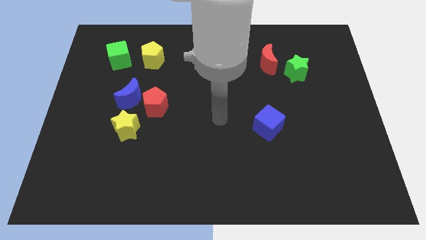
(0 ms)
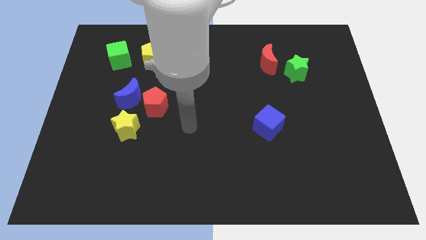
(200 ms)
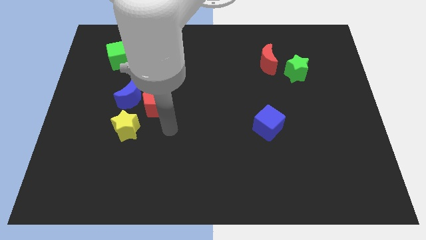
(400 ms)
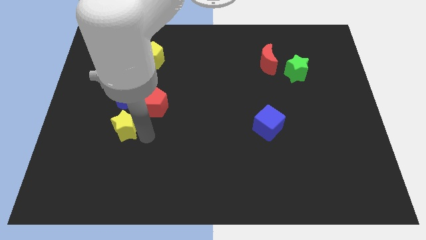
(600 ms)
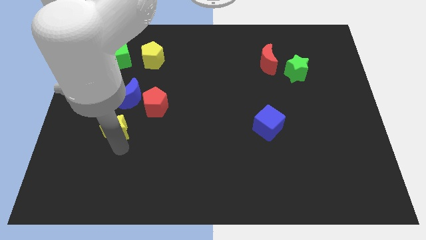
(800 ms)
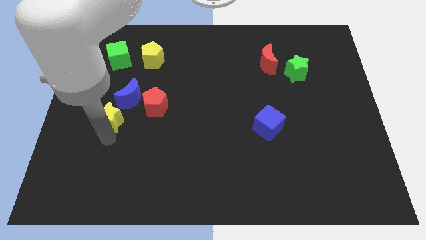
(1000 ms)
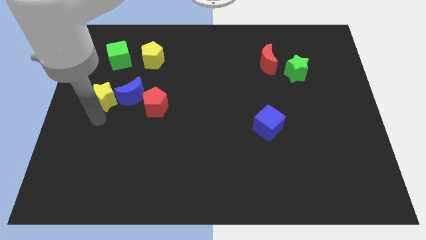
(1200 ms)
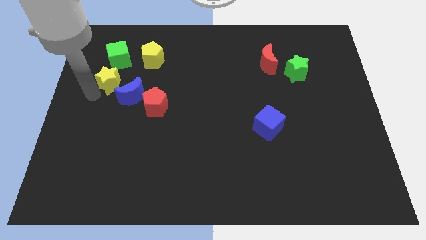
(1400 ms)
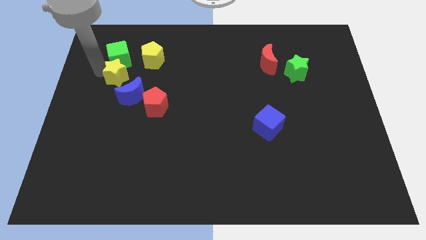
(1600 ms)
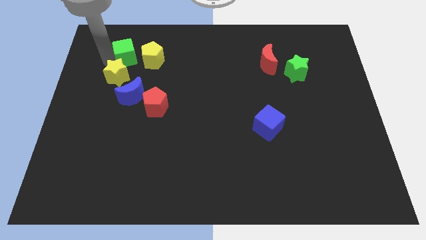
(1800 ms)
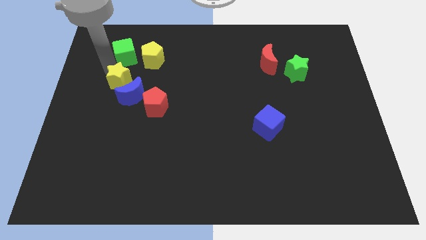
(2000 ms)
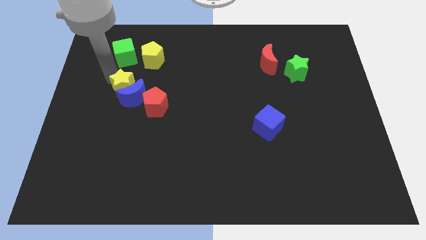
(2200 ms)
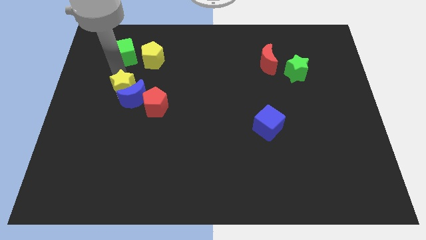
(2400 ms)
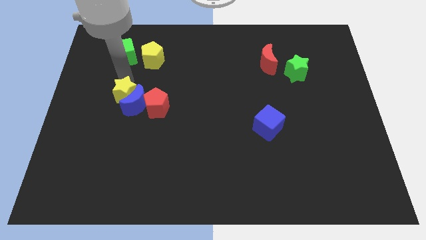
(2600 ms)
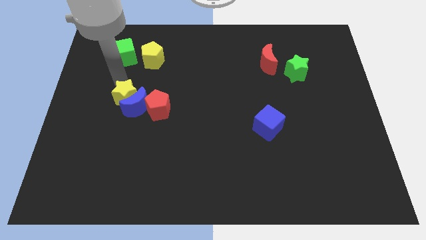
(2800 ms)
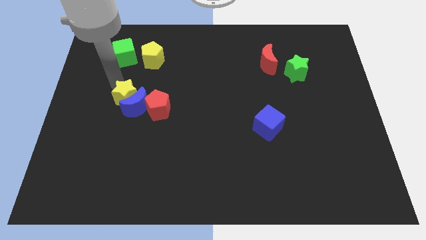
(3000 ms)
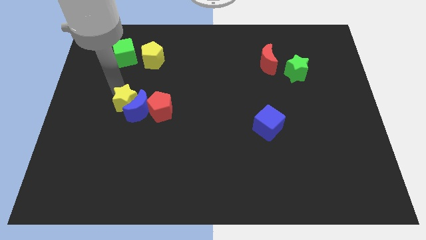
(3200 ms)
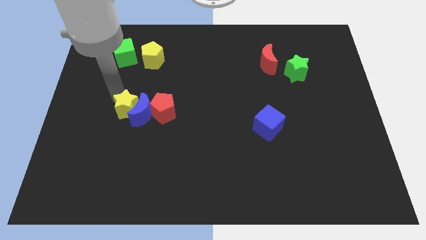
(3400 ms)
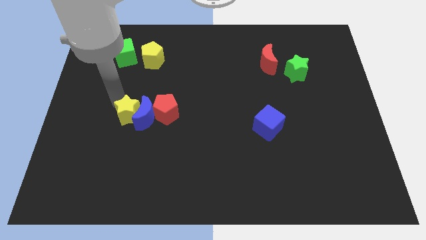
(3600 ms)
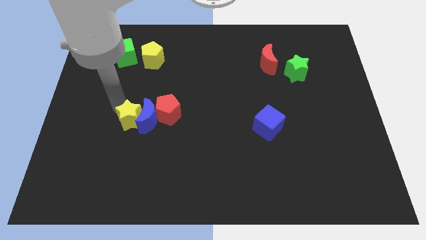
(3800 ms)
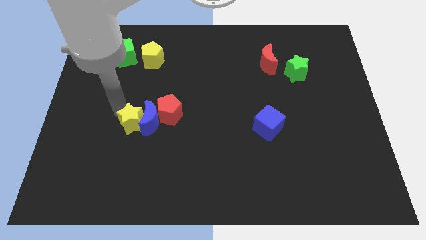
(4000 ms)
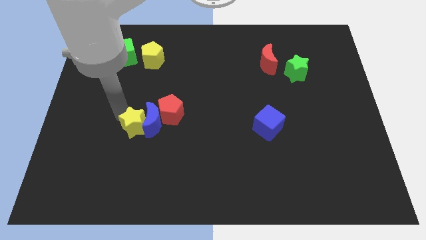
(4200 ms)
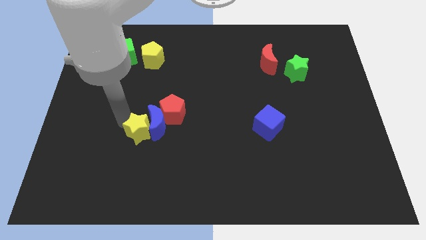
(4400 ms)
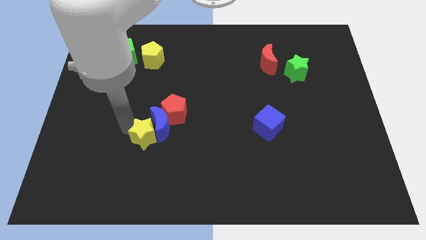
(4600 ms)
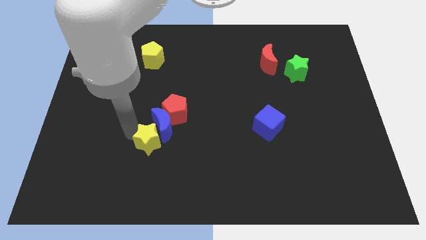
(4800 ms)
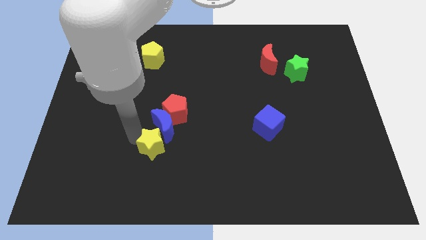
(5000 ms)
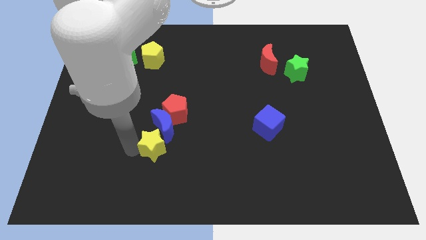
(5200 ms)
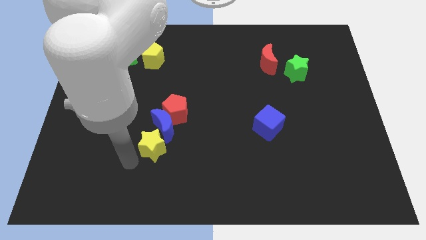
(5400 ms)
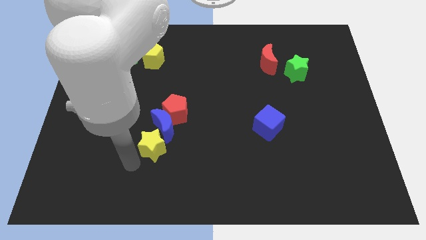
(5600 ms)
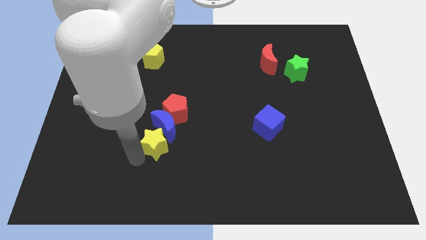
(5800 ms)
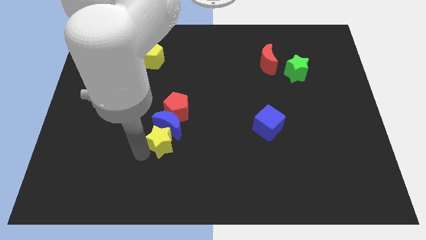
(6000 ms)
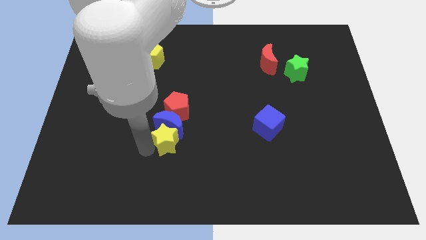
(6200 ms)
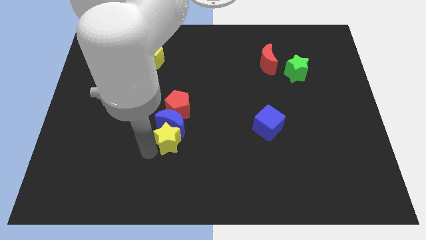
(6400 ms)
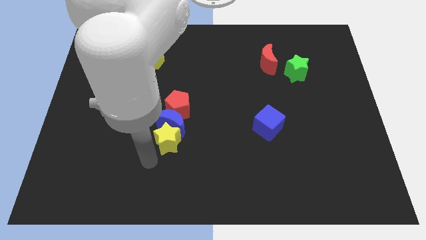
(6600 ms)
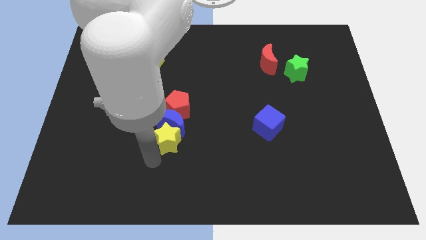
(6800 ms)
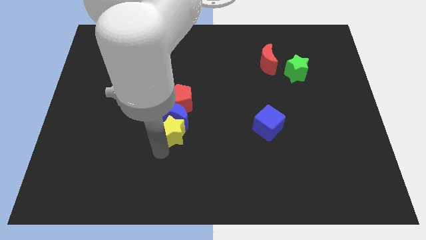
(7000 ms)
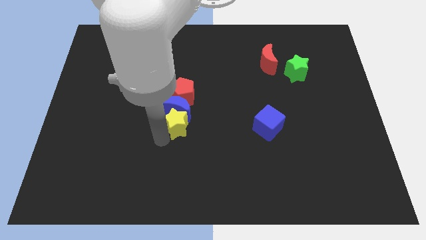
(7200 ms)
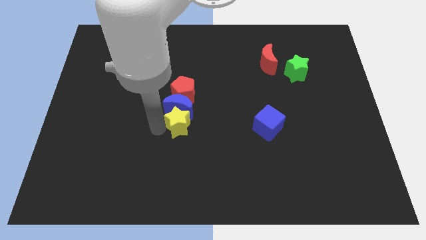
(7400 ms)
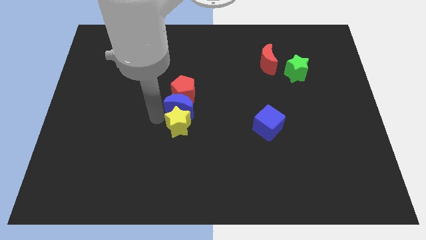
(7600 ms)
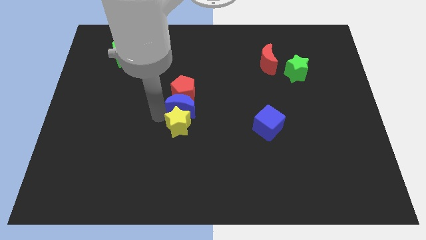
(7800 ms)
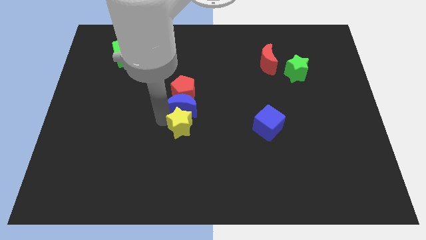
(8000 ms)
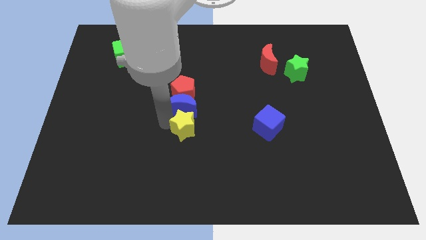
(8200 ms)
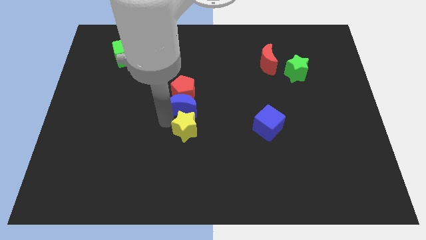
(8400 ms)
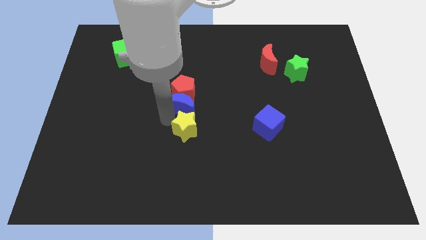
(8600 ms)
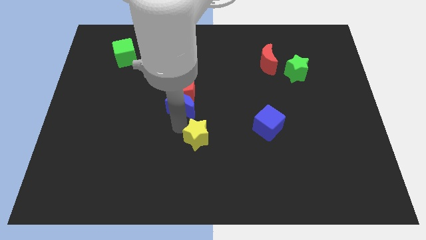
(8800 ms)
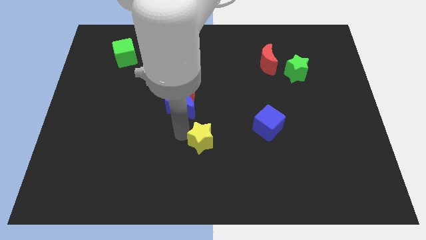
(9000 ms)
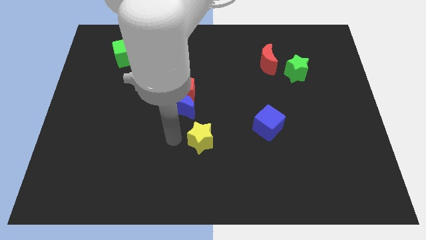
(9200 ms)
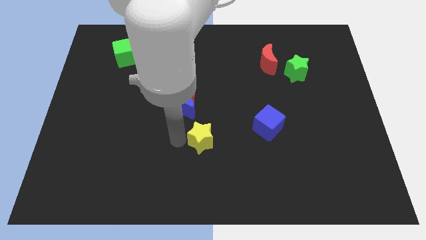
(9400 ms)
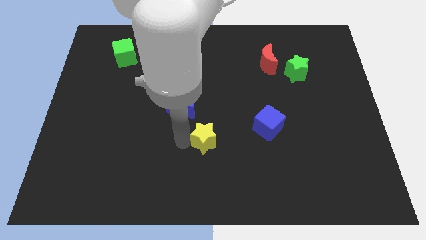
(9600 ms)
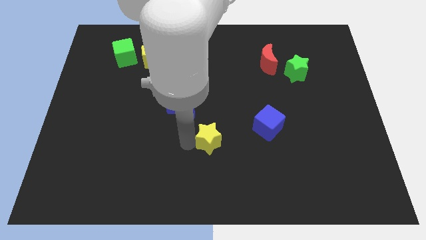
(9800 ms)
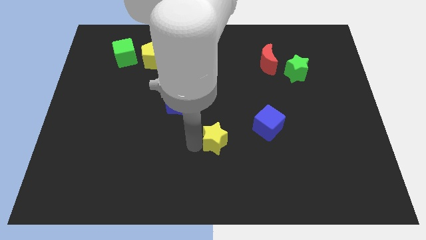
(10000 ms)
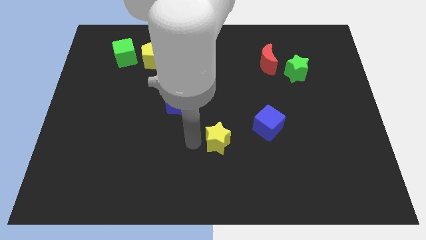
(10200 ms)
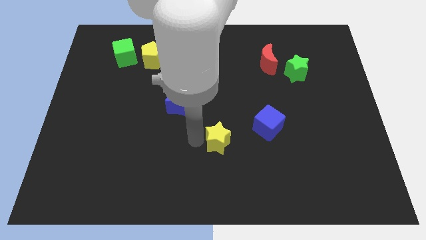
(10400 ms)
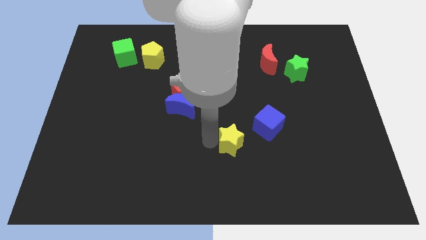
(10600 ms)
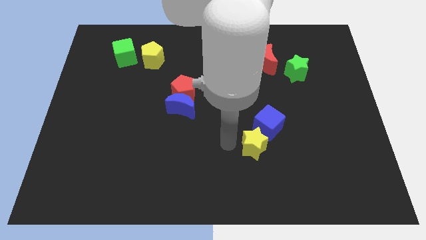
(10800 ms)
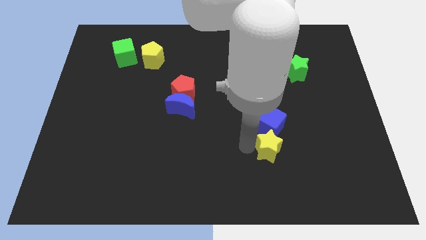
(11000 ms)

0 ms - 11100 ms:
push the yellow star to the bottom right of the blue cube

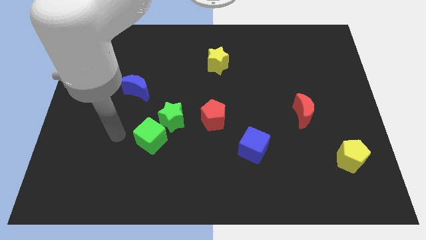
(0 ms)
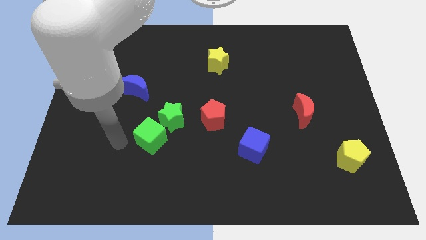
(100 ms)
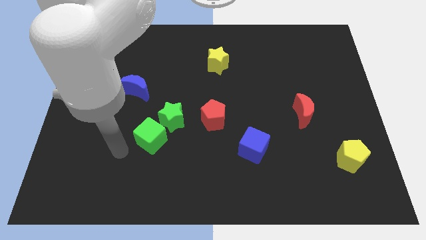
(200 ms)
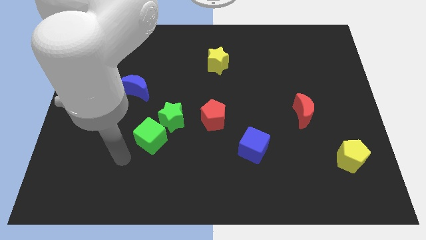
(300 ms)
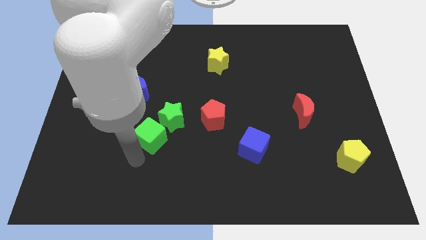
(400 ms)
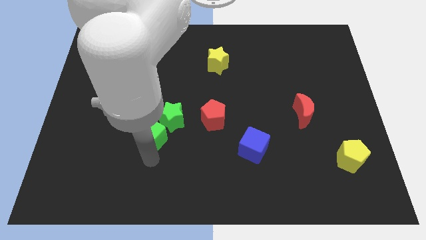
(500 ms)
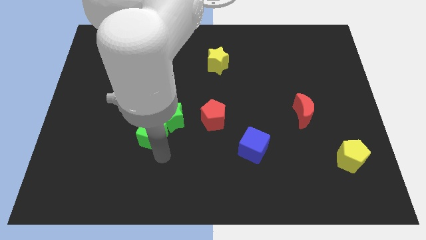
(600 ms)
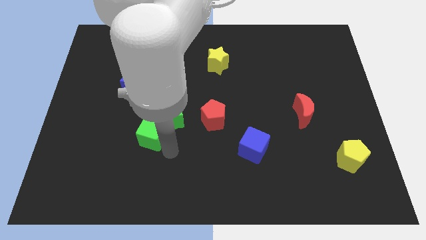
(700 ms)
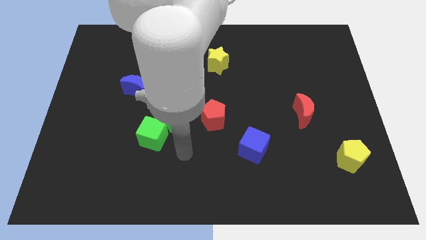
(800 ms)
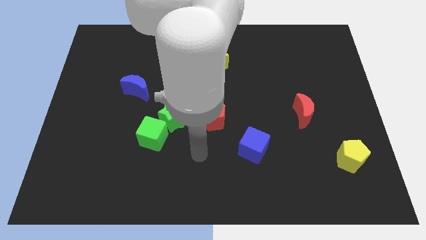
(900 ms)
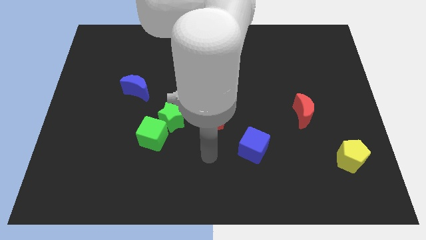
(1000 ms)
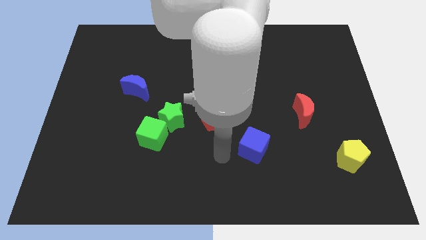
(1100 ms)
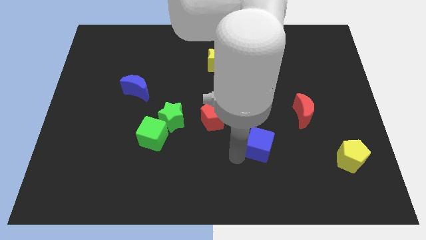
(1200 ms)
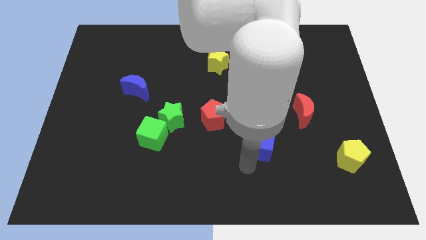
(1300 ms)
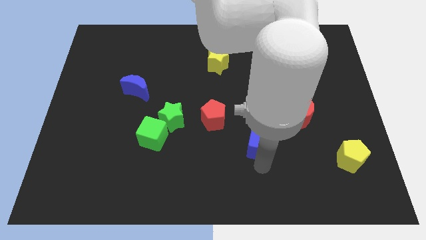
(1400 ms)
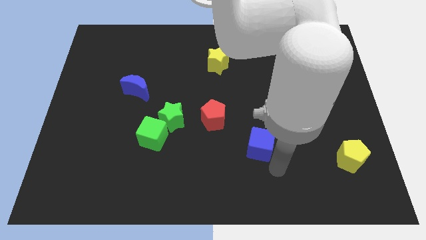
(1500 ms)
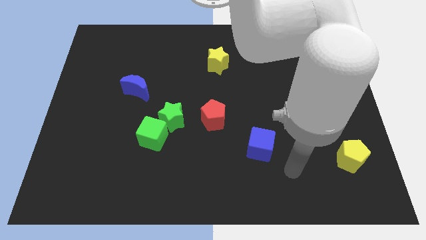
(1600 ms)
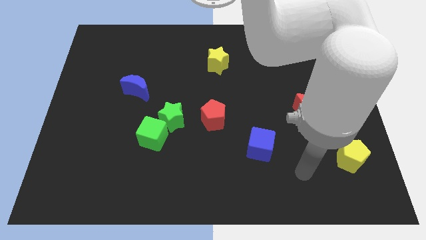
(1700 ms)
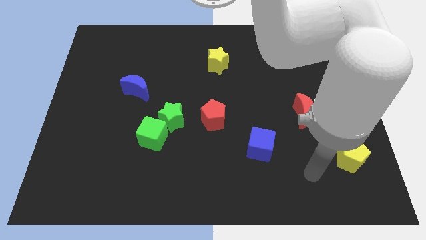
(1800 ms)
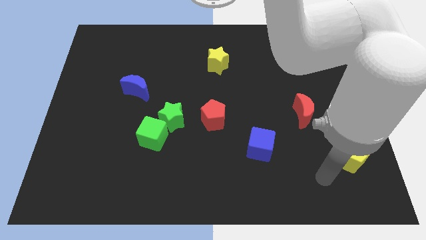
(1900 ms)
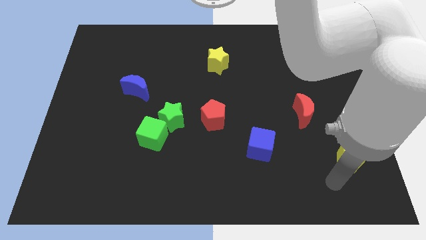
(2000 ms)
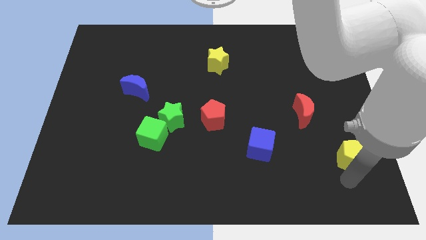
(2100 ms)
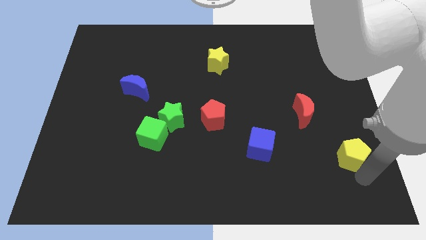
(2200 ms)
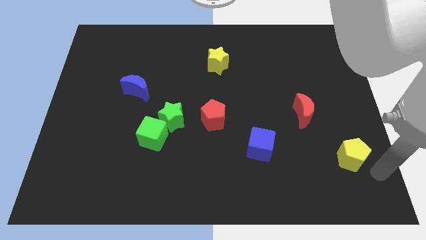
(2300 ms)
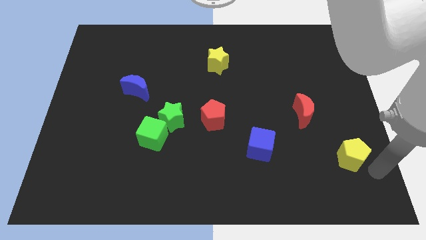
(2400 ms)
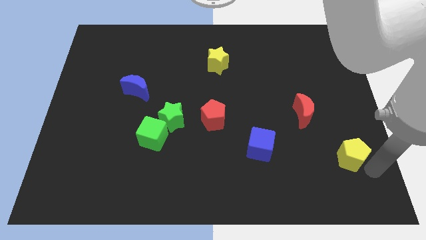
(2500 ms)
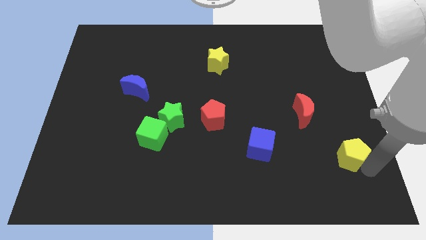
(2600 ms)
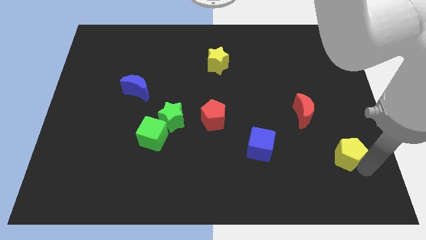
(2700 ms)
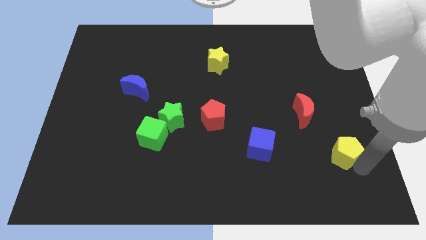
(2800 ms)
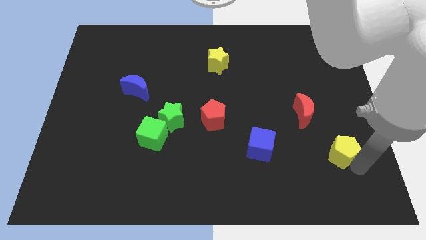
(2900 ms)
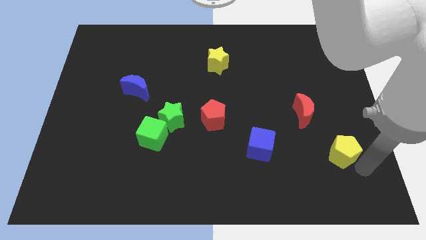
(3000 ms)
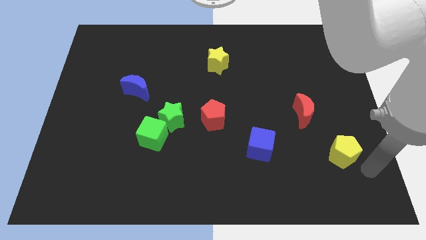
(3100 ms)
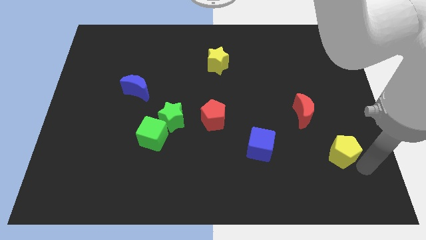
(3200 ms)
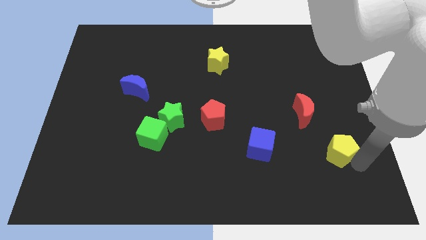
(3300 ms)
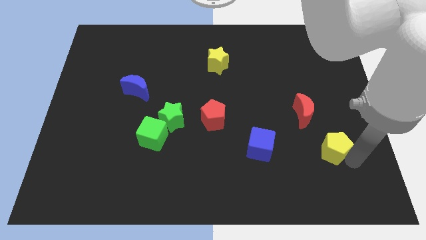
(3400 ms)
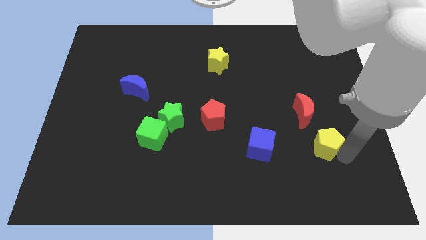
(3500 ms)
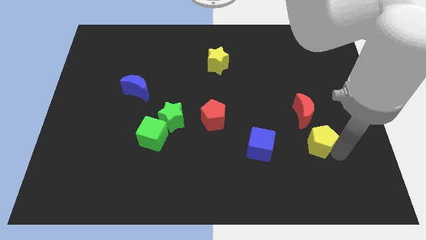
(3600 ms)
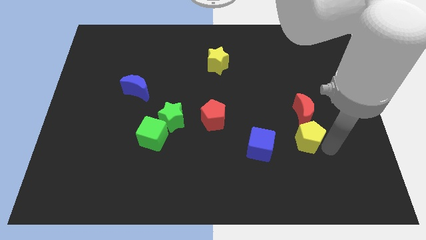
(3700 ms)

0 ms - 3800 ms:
put the yellow pentagon to the bottom left of the red moon
